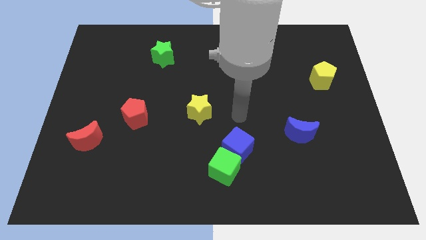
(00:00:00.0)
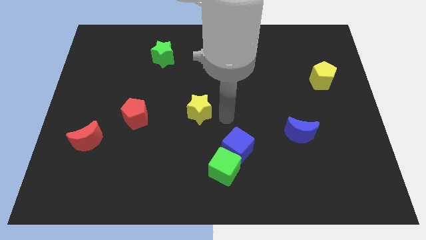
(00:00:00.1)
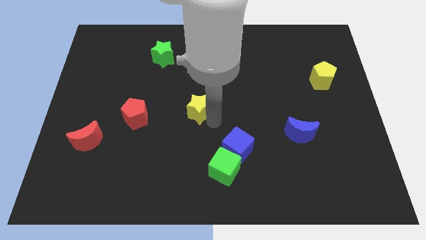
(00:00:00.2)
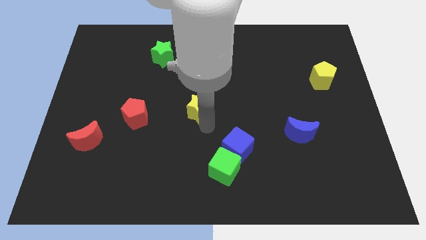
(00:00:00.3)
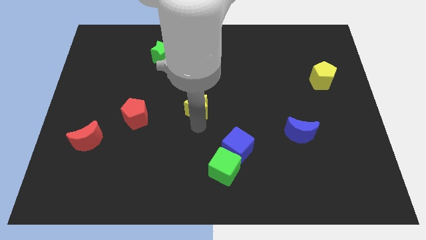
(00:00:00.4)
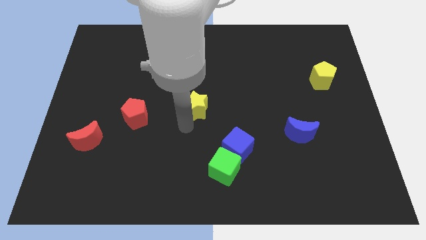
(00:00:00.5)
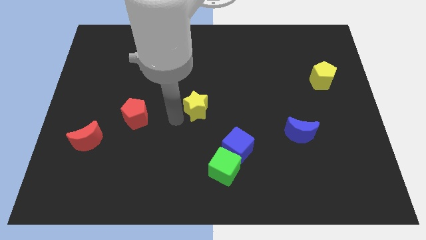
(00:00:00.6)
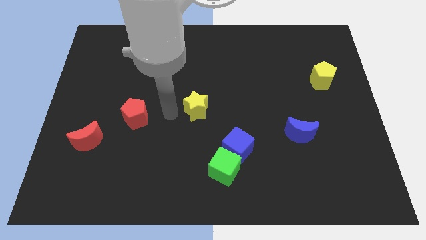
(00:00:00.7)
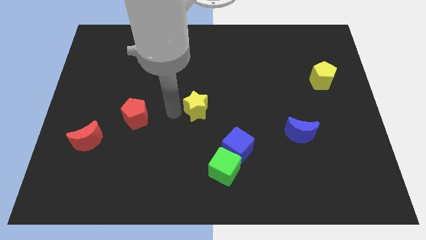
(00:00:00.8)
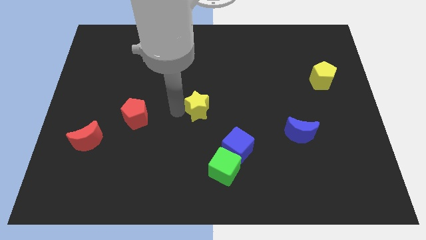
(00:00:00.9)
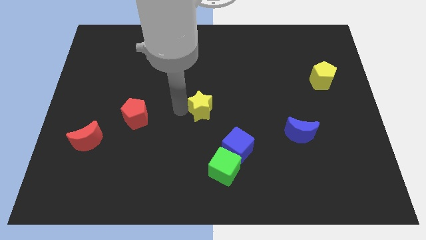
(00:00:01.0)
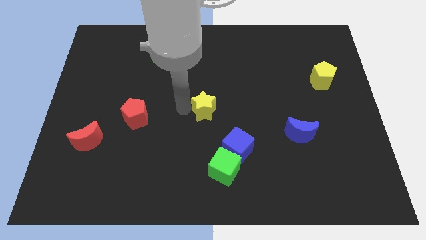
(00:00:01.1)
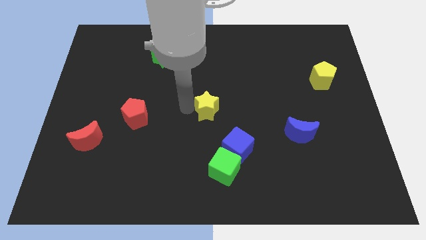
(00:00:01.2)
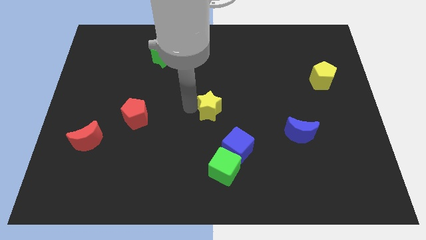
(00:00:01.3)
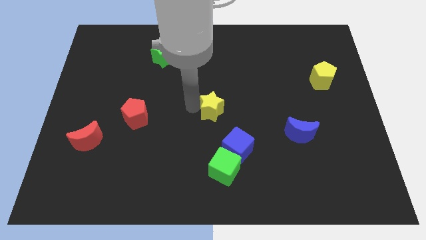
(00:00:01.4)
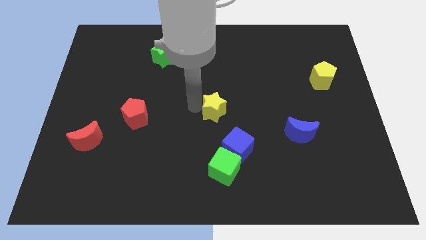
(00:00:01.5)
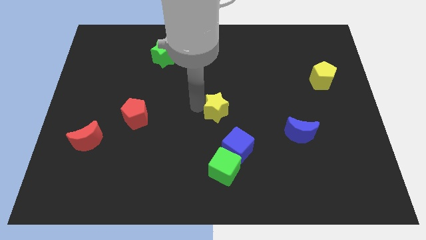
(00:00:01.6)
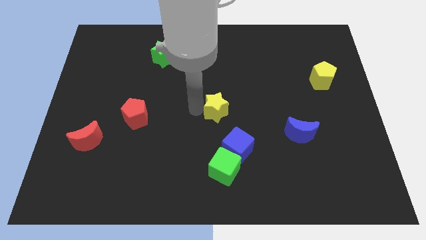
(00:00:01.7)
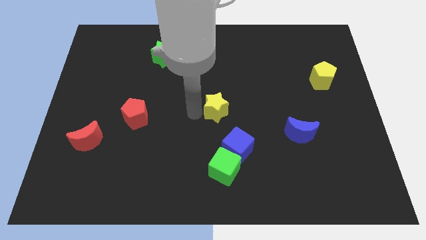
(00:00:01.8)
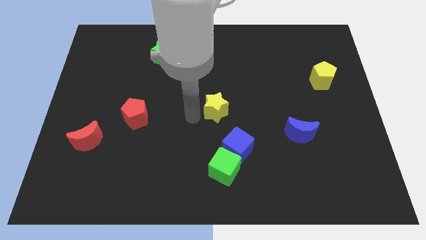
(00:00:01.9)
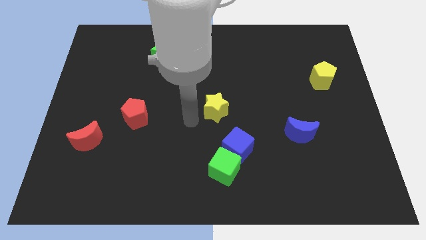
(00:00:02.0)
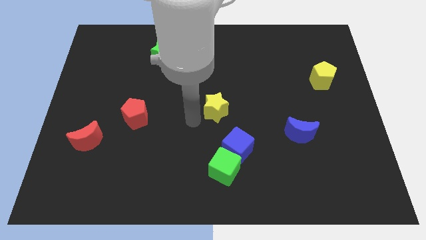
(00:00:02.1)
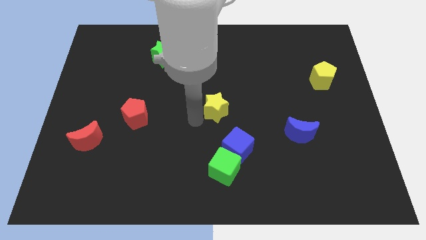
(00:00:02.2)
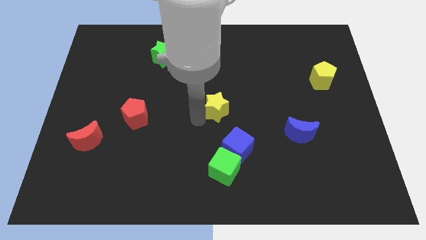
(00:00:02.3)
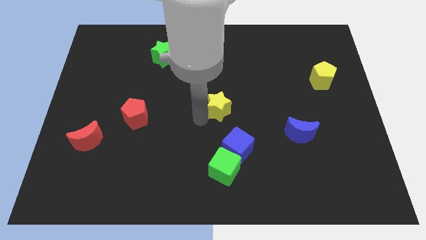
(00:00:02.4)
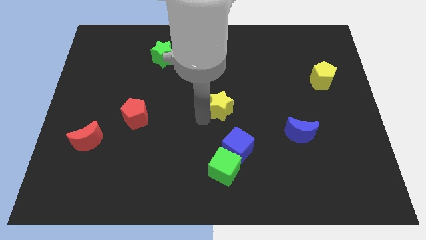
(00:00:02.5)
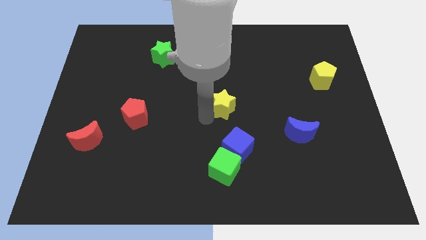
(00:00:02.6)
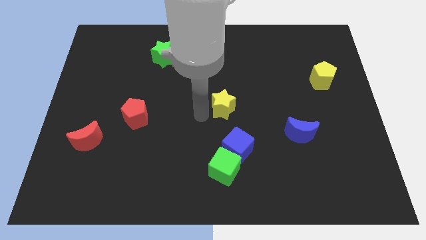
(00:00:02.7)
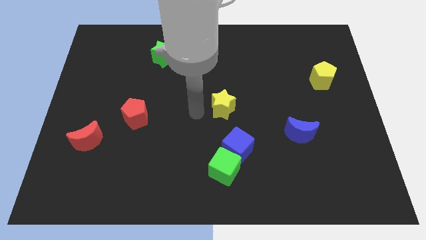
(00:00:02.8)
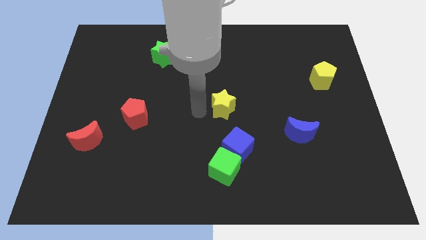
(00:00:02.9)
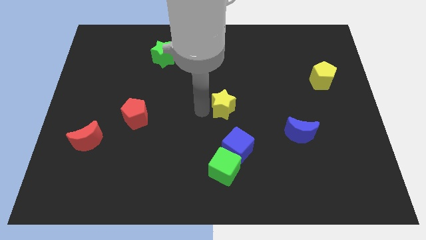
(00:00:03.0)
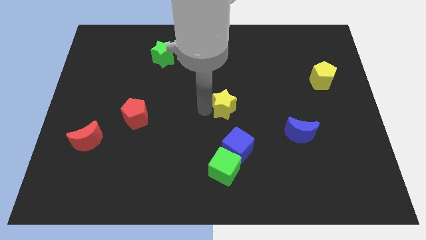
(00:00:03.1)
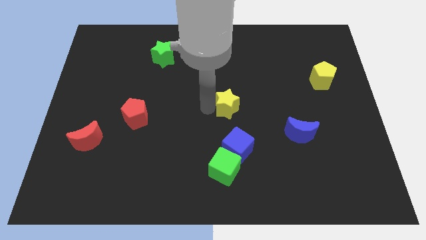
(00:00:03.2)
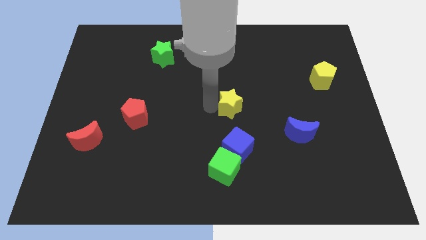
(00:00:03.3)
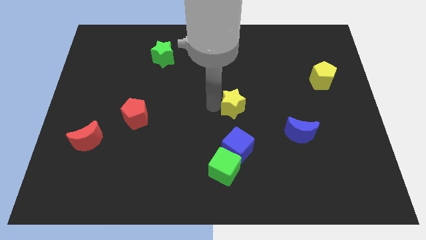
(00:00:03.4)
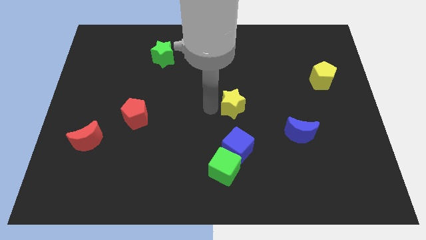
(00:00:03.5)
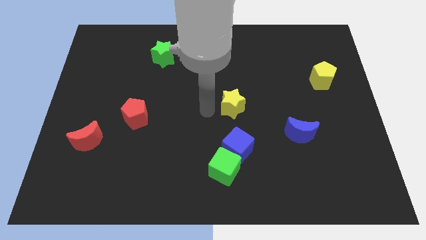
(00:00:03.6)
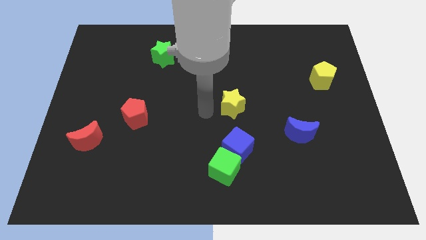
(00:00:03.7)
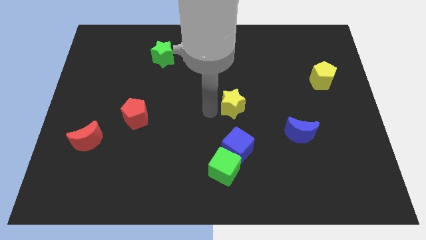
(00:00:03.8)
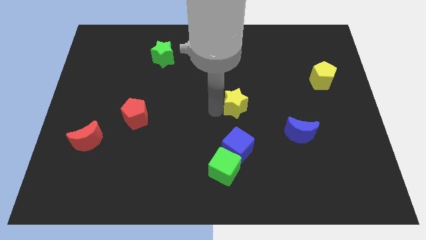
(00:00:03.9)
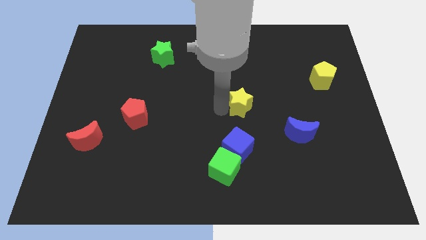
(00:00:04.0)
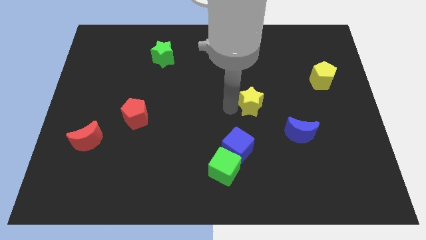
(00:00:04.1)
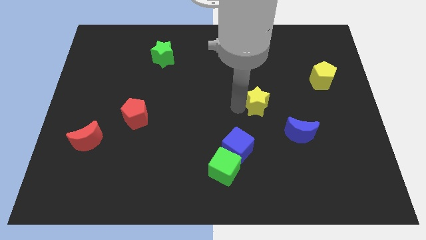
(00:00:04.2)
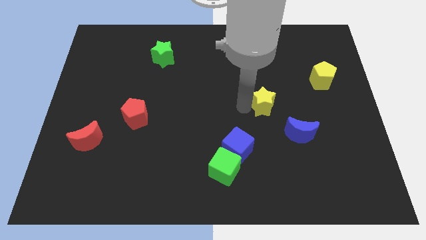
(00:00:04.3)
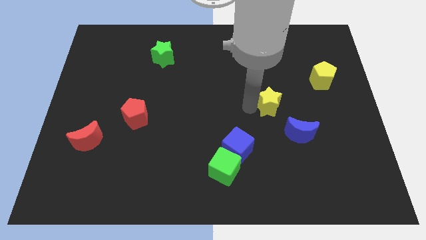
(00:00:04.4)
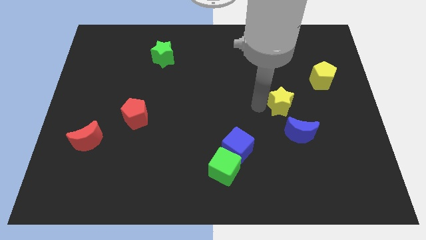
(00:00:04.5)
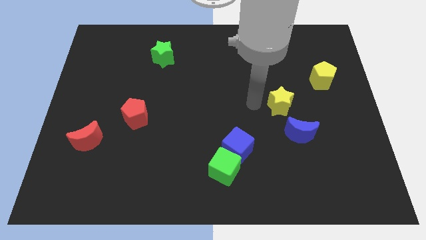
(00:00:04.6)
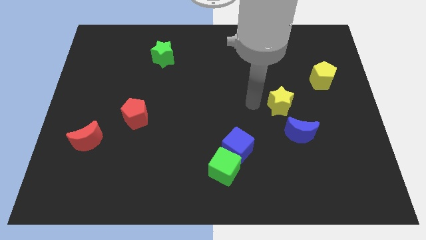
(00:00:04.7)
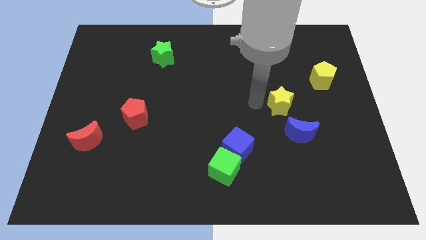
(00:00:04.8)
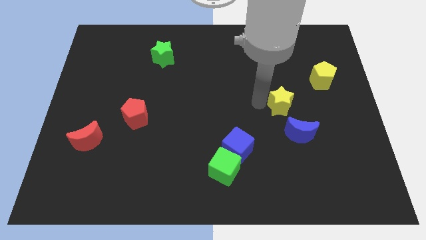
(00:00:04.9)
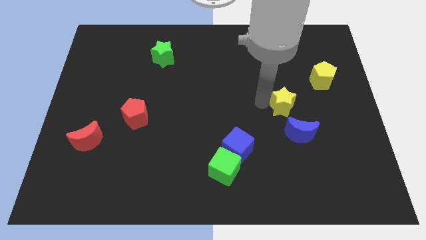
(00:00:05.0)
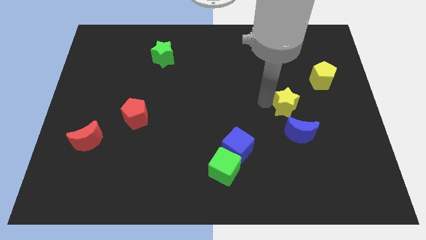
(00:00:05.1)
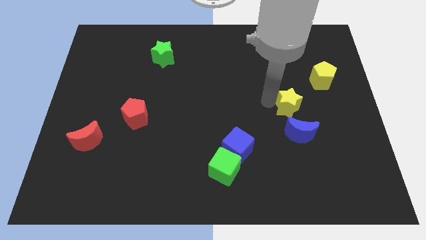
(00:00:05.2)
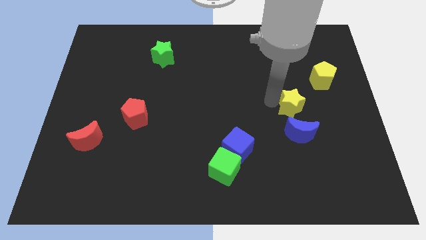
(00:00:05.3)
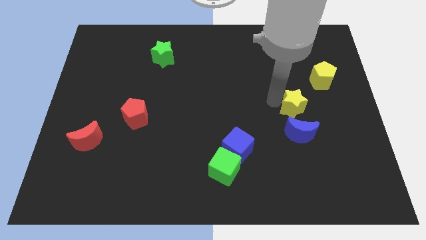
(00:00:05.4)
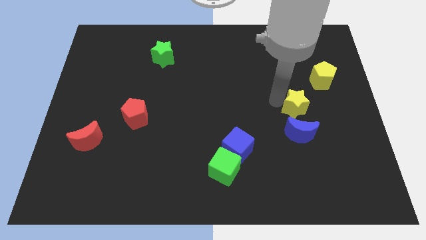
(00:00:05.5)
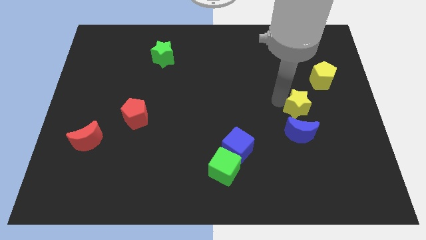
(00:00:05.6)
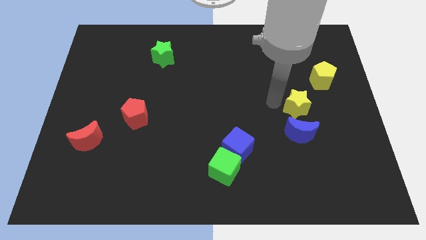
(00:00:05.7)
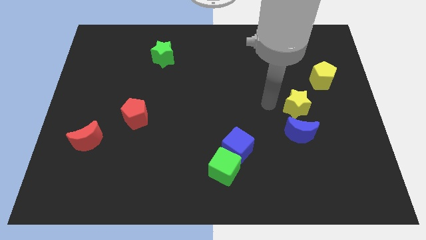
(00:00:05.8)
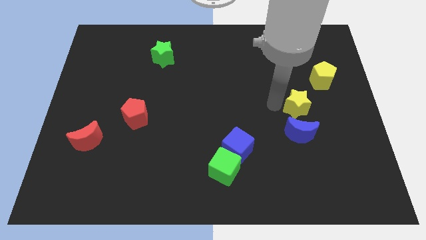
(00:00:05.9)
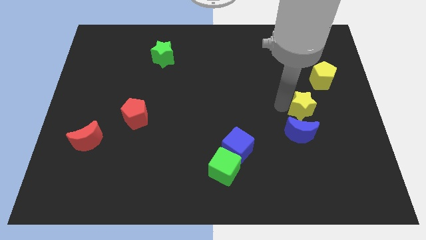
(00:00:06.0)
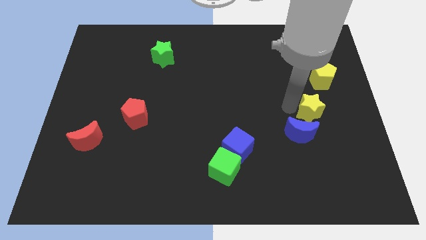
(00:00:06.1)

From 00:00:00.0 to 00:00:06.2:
put the yellow star to the bottom of the yellow pentagon

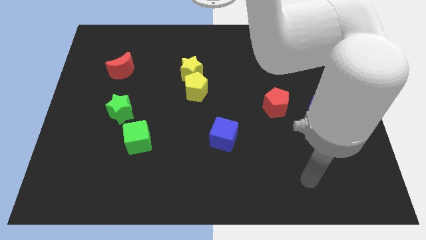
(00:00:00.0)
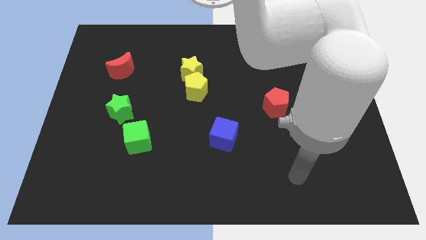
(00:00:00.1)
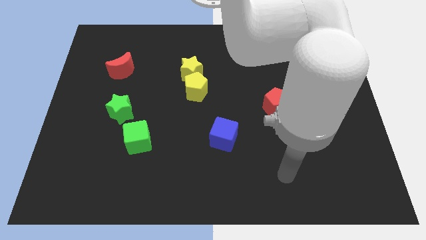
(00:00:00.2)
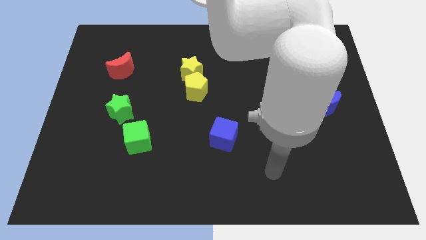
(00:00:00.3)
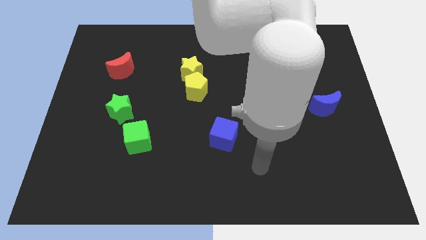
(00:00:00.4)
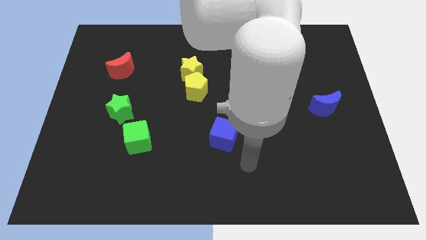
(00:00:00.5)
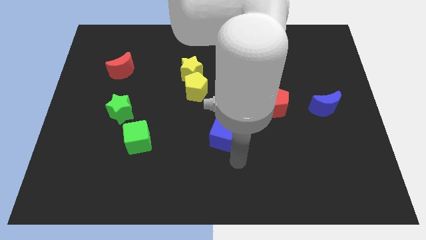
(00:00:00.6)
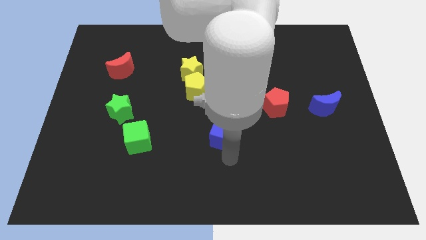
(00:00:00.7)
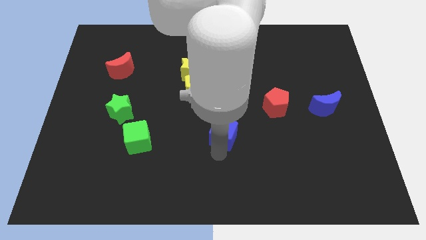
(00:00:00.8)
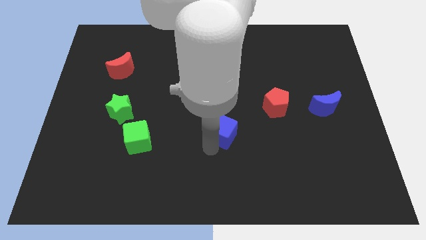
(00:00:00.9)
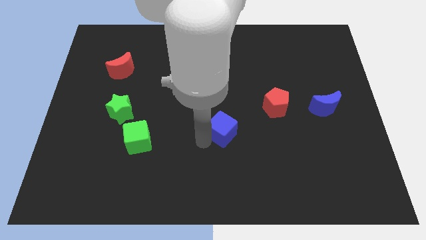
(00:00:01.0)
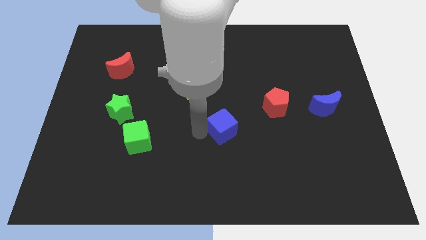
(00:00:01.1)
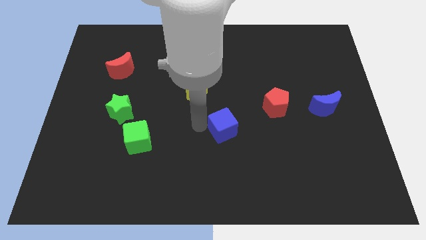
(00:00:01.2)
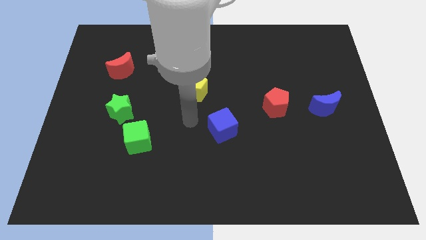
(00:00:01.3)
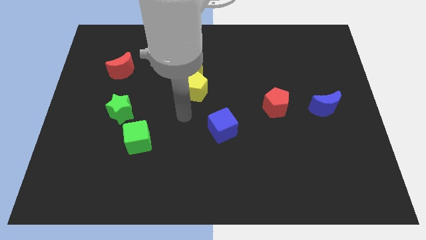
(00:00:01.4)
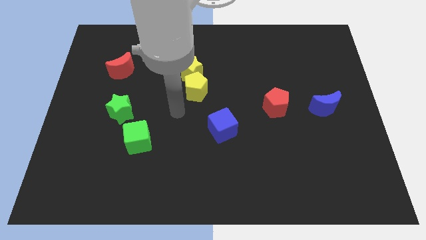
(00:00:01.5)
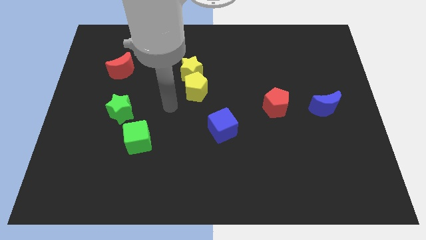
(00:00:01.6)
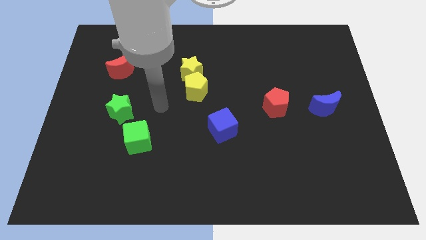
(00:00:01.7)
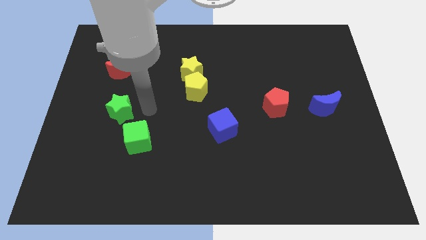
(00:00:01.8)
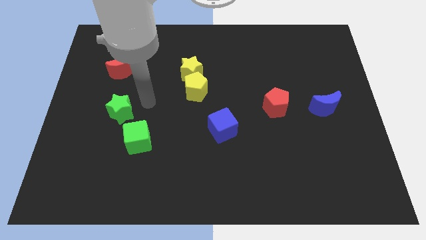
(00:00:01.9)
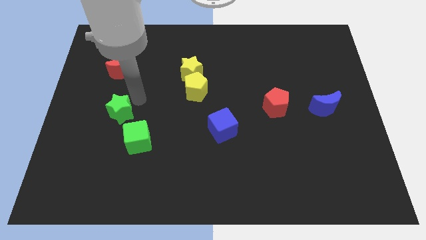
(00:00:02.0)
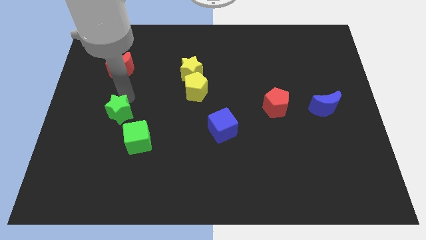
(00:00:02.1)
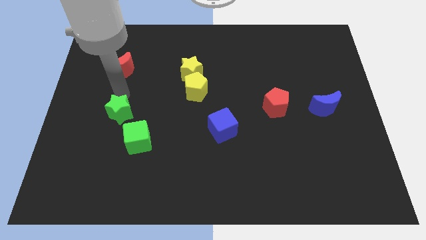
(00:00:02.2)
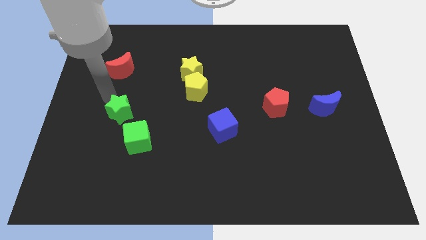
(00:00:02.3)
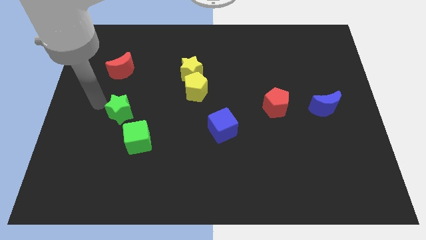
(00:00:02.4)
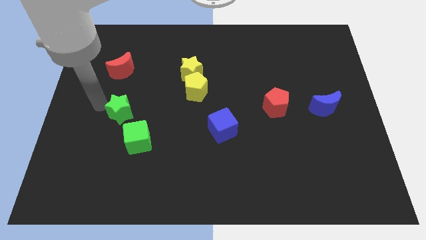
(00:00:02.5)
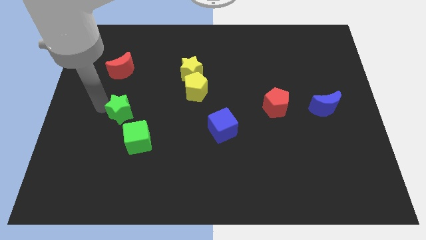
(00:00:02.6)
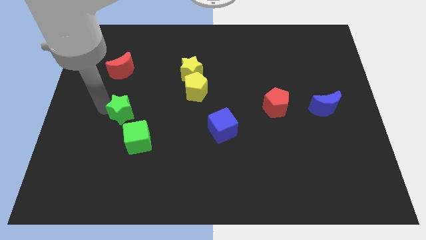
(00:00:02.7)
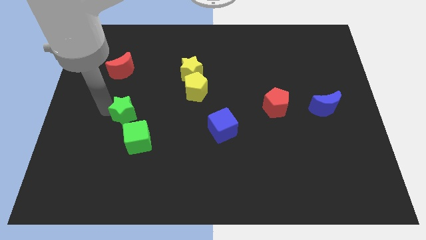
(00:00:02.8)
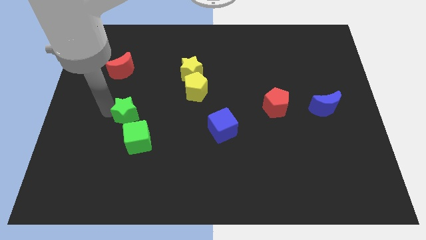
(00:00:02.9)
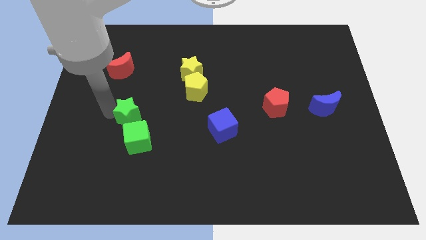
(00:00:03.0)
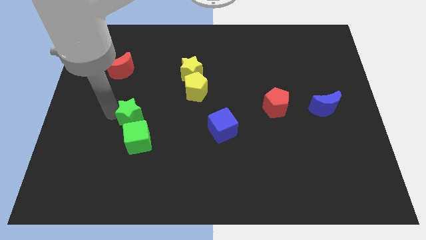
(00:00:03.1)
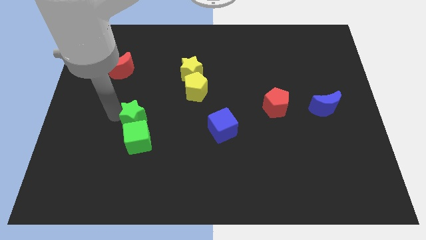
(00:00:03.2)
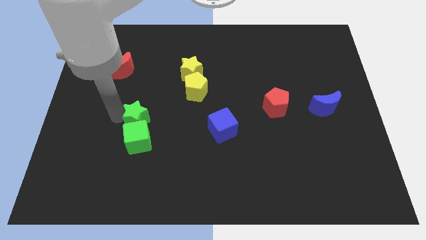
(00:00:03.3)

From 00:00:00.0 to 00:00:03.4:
move the green star diagonally up and to the right of the green cube
